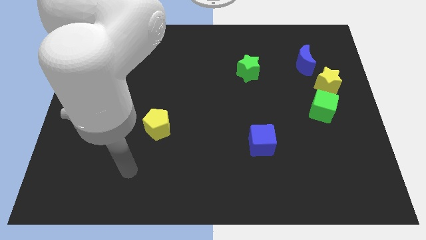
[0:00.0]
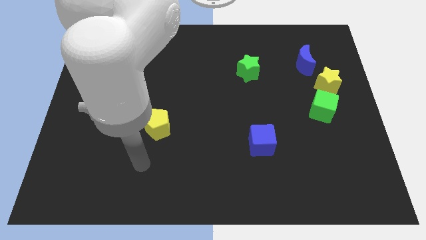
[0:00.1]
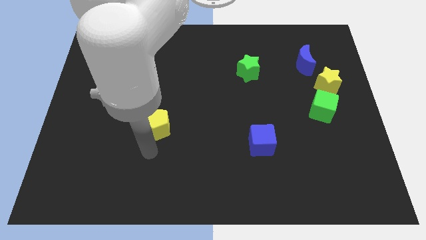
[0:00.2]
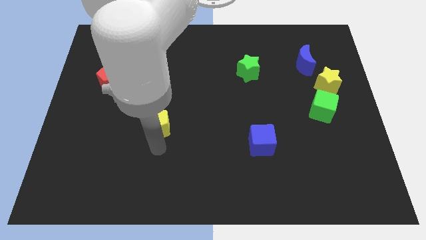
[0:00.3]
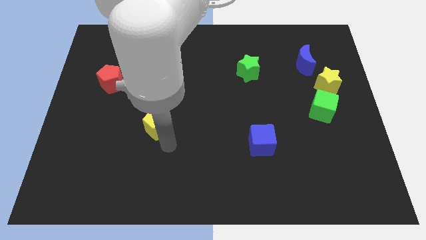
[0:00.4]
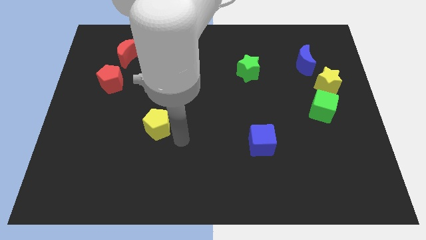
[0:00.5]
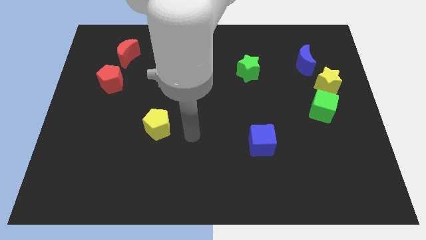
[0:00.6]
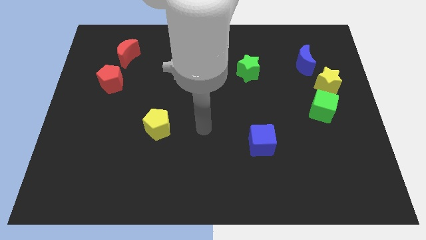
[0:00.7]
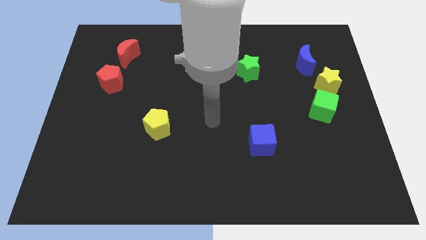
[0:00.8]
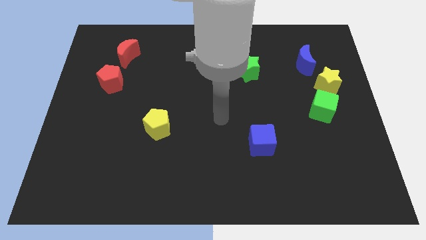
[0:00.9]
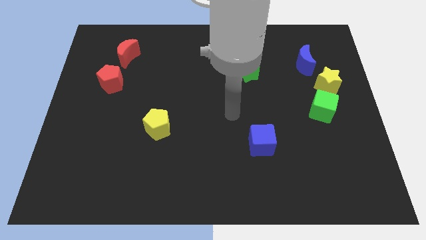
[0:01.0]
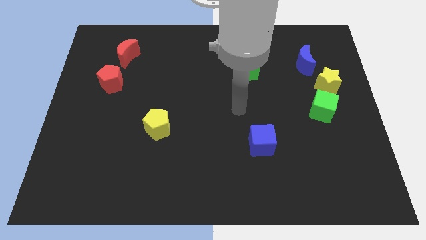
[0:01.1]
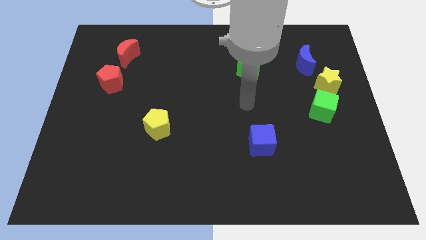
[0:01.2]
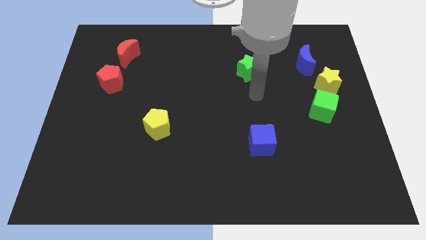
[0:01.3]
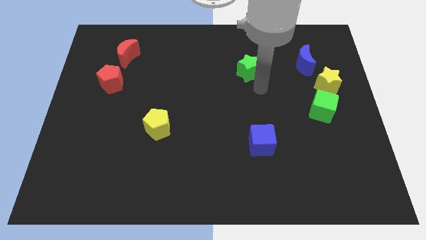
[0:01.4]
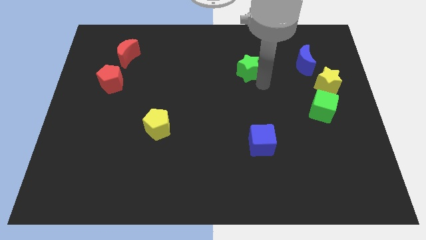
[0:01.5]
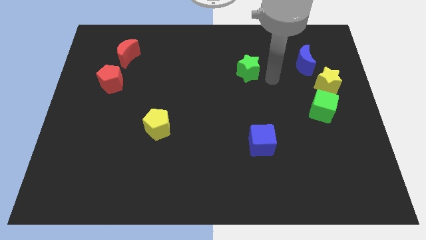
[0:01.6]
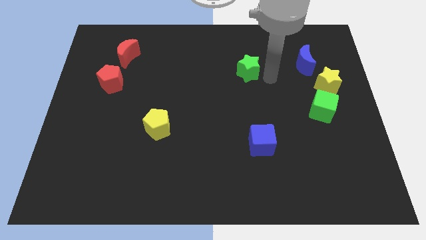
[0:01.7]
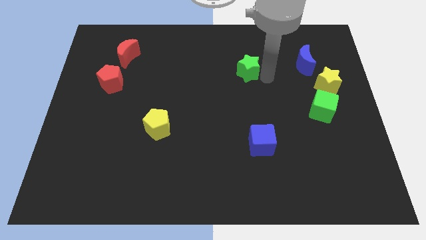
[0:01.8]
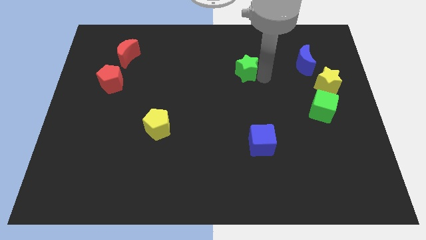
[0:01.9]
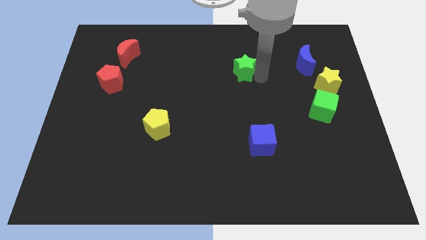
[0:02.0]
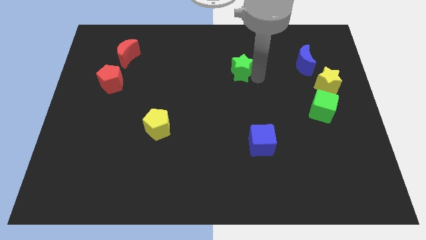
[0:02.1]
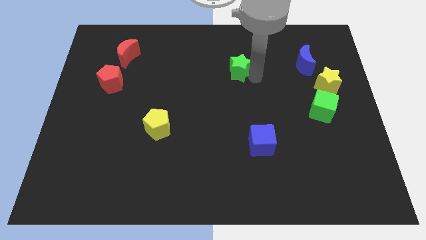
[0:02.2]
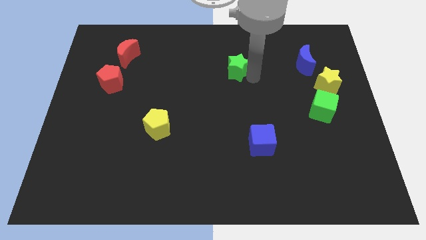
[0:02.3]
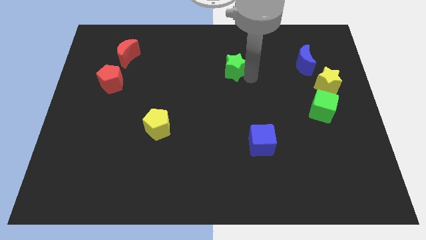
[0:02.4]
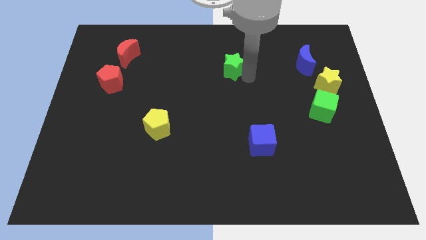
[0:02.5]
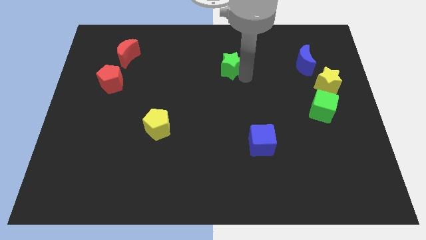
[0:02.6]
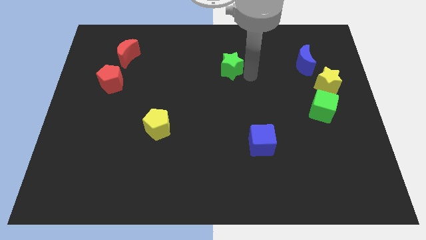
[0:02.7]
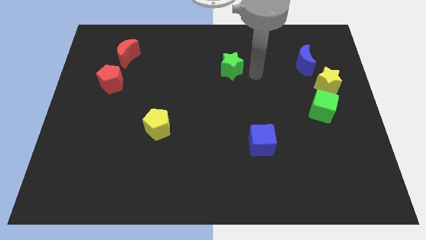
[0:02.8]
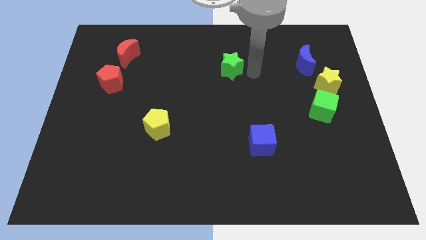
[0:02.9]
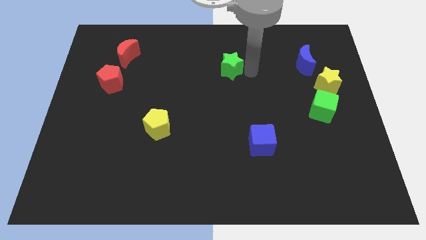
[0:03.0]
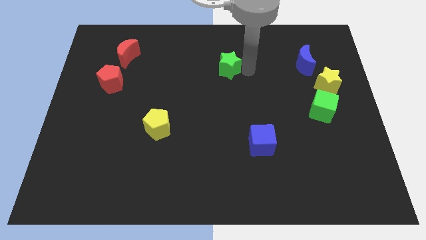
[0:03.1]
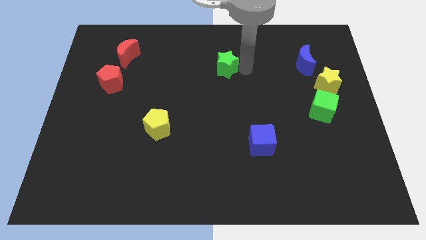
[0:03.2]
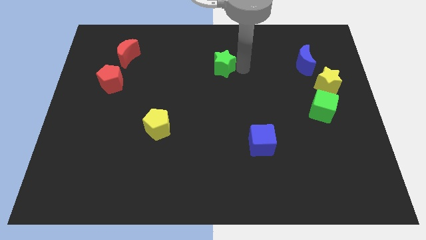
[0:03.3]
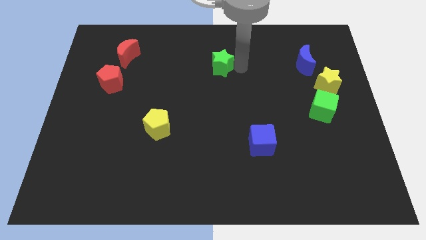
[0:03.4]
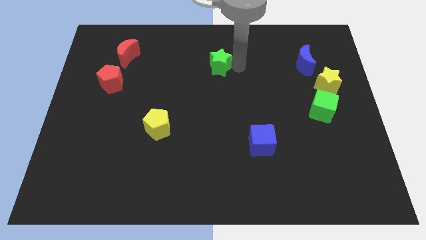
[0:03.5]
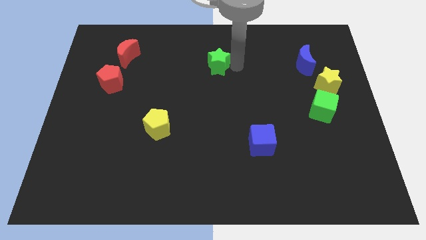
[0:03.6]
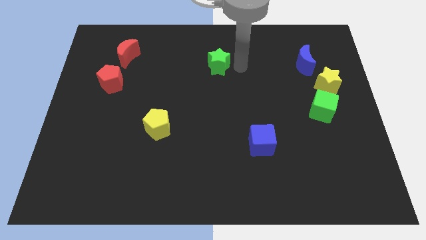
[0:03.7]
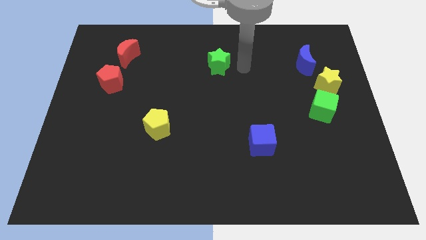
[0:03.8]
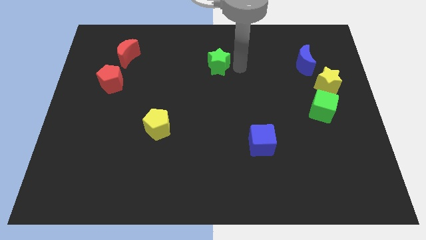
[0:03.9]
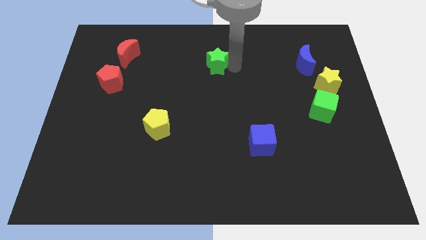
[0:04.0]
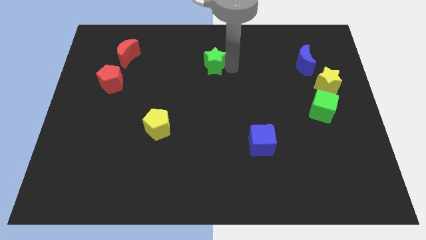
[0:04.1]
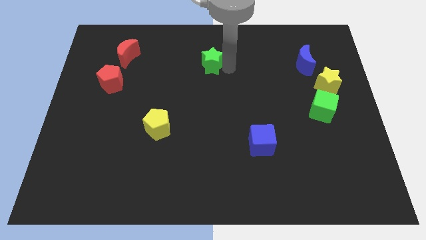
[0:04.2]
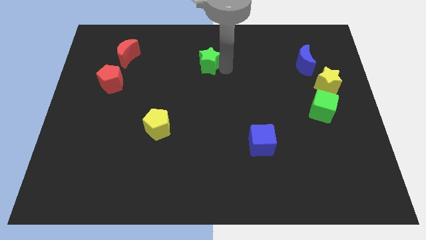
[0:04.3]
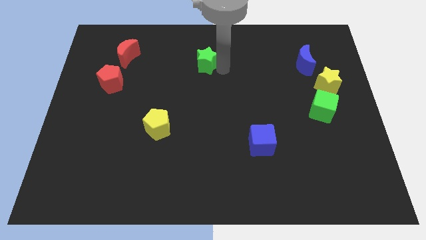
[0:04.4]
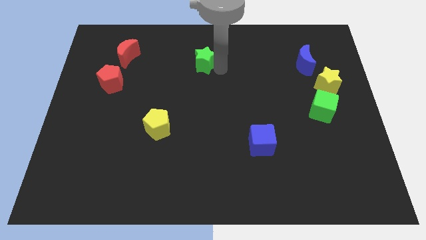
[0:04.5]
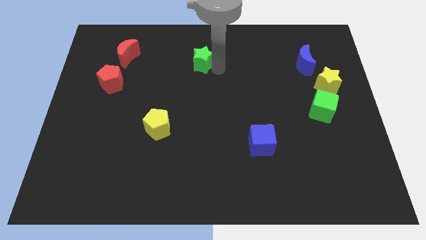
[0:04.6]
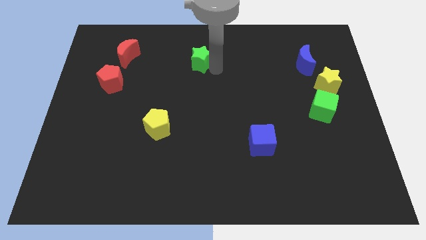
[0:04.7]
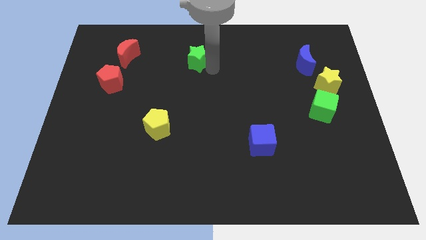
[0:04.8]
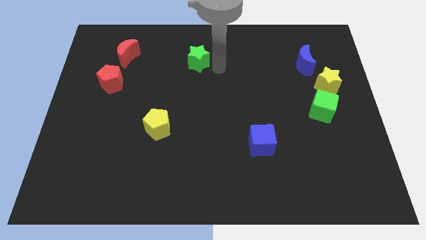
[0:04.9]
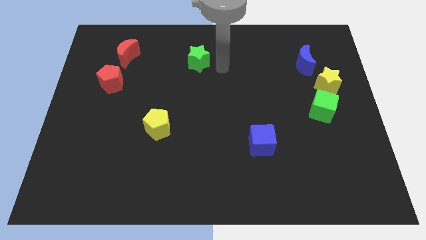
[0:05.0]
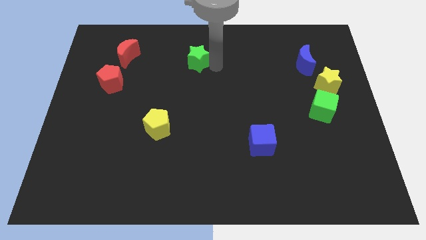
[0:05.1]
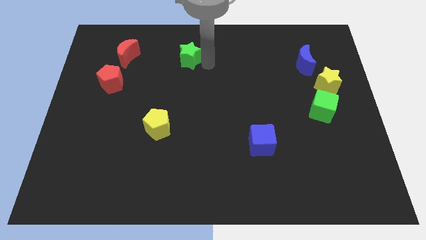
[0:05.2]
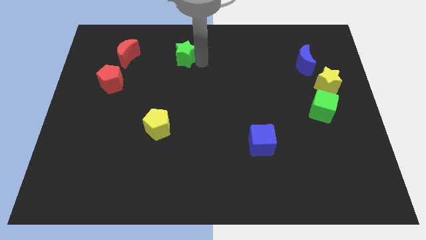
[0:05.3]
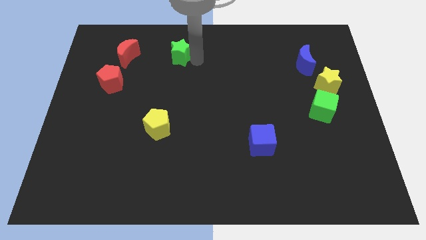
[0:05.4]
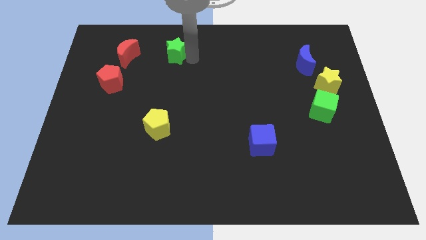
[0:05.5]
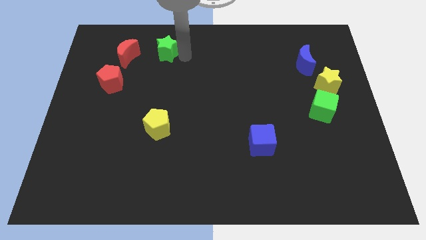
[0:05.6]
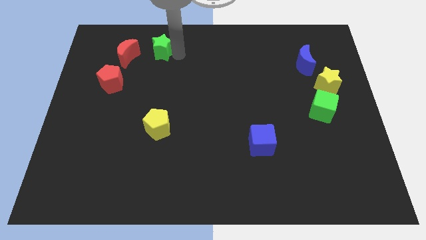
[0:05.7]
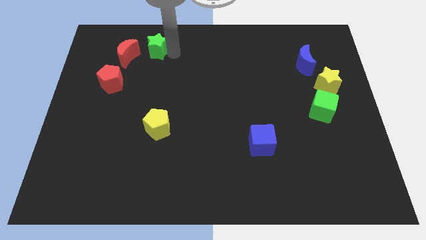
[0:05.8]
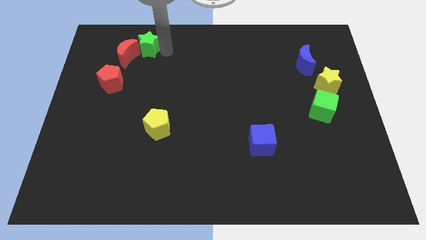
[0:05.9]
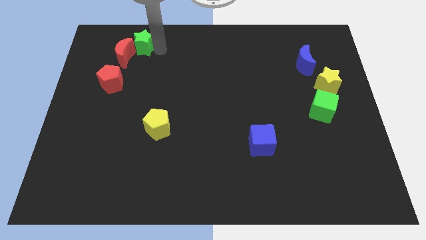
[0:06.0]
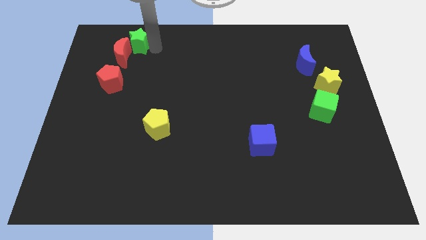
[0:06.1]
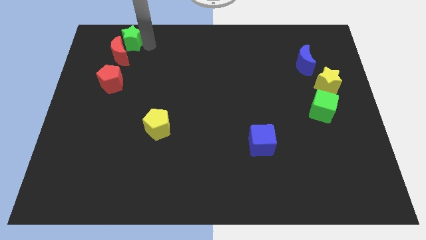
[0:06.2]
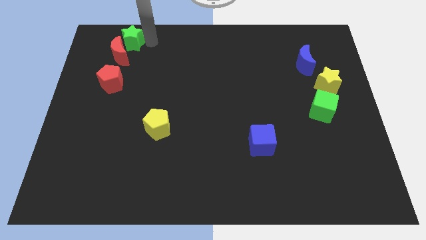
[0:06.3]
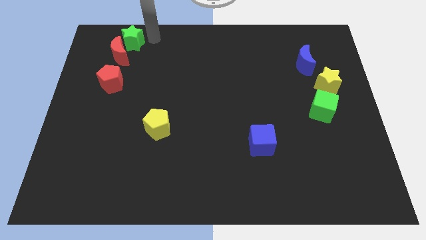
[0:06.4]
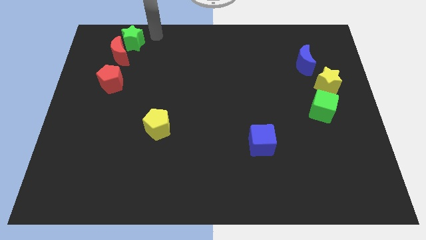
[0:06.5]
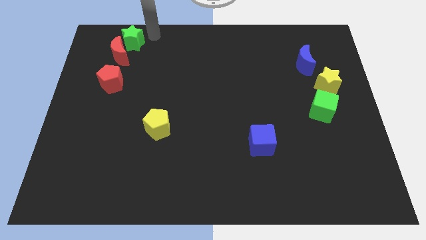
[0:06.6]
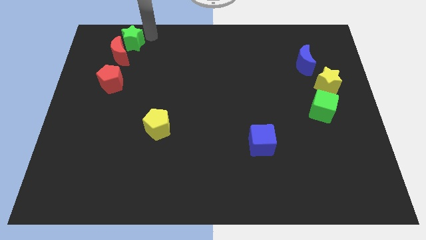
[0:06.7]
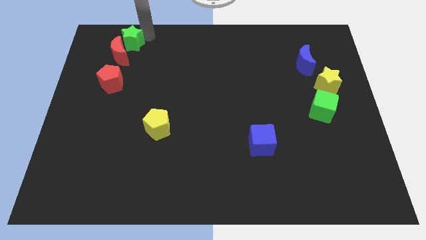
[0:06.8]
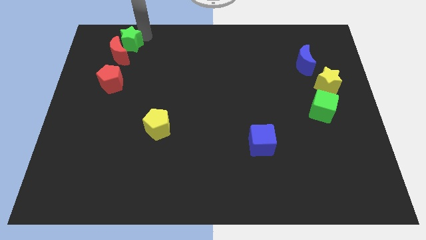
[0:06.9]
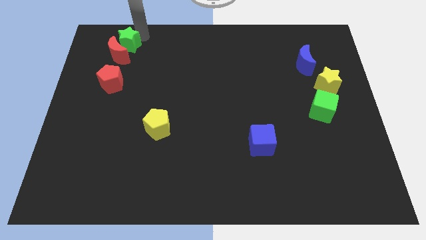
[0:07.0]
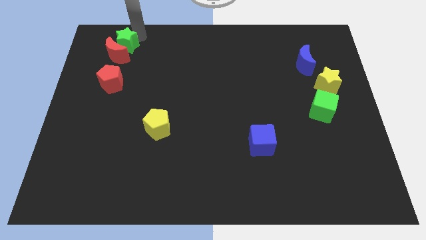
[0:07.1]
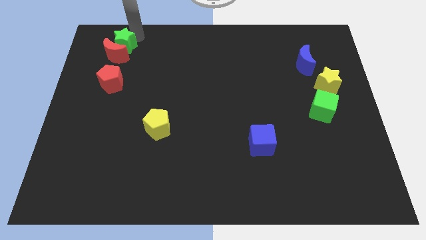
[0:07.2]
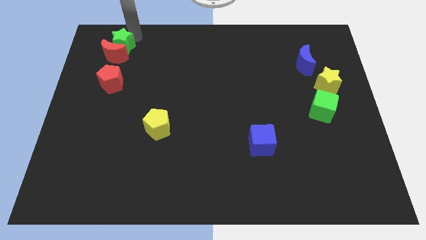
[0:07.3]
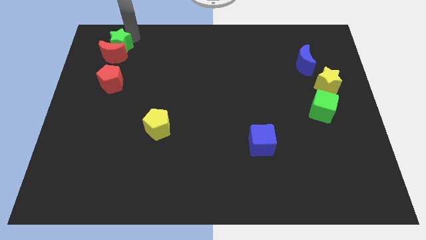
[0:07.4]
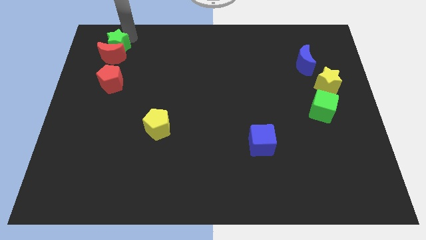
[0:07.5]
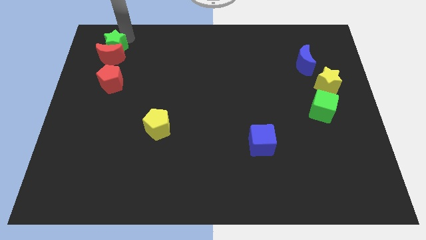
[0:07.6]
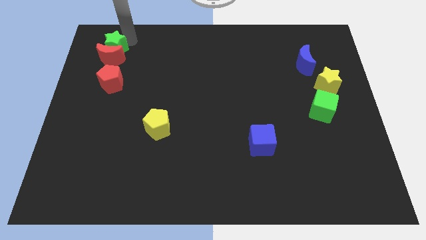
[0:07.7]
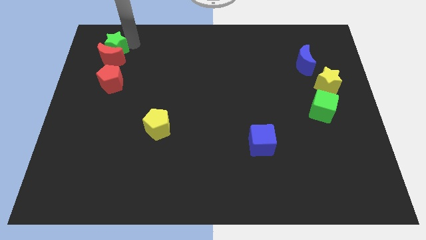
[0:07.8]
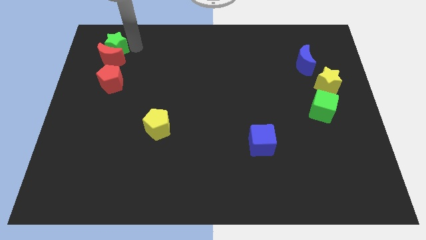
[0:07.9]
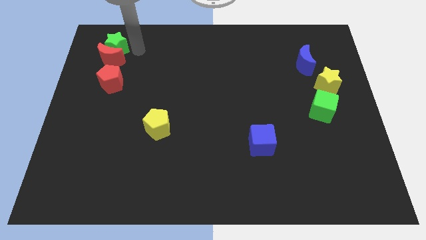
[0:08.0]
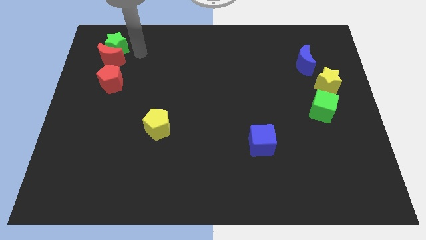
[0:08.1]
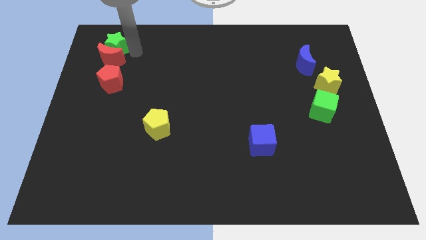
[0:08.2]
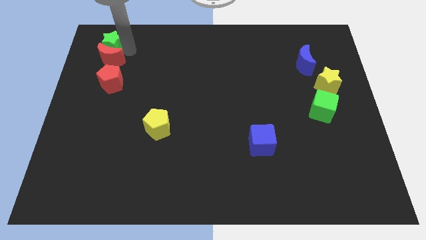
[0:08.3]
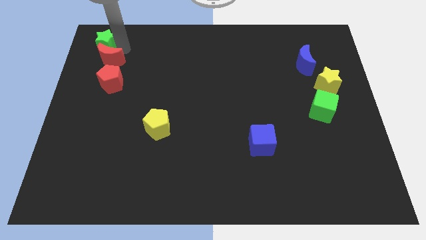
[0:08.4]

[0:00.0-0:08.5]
push the green star to the top left
